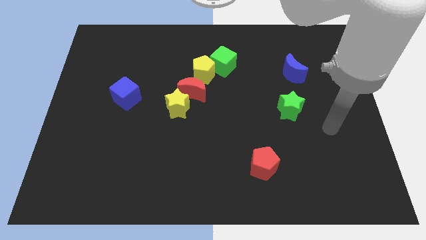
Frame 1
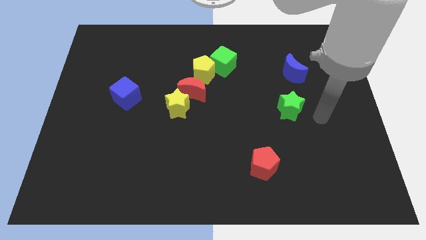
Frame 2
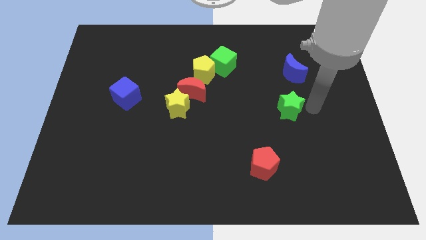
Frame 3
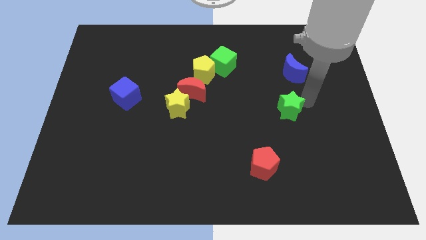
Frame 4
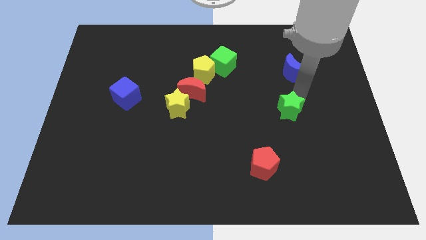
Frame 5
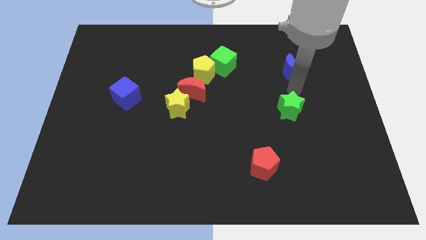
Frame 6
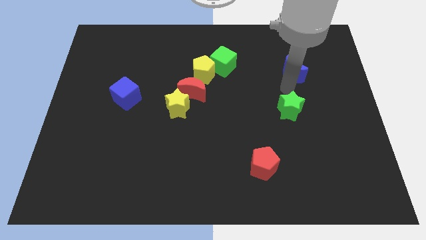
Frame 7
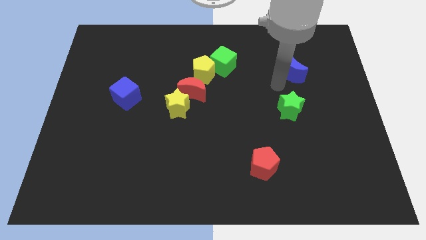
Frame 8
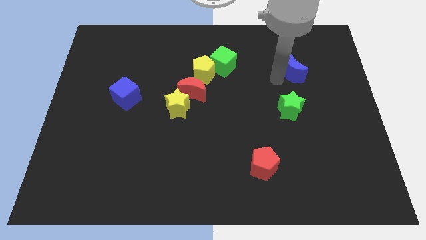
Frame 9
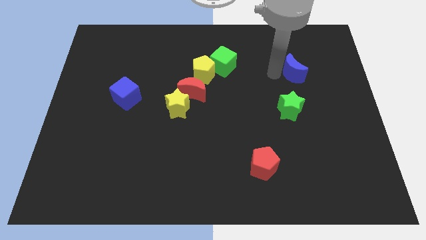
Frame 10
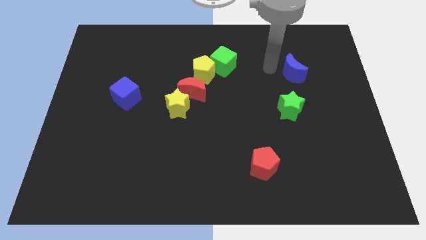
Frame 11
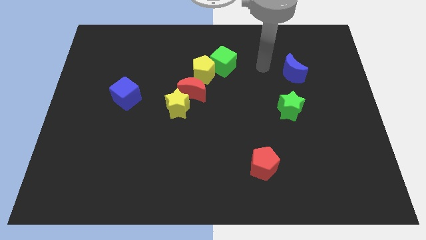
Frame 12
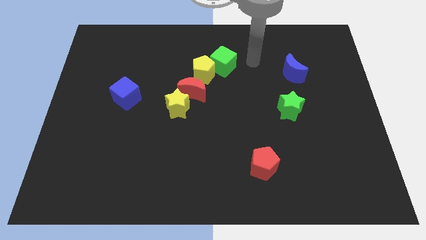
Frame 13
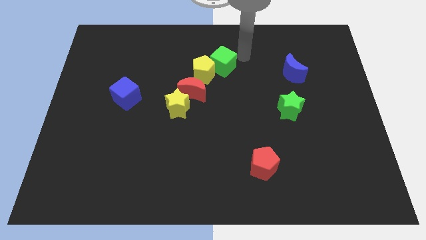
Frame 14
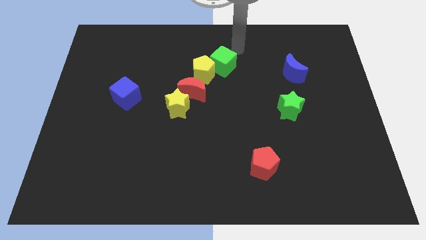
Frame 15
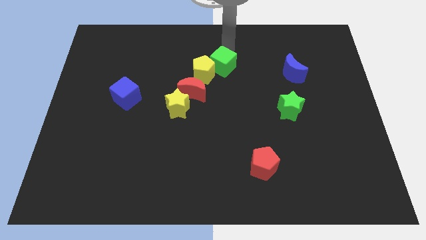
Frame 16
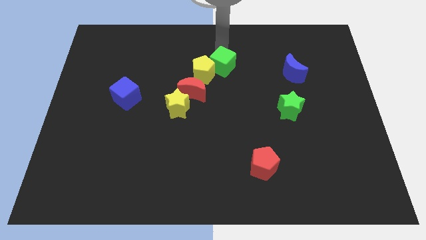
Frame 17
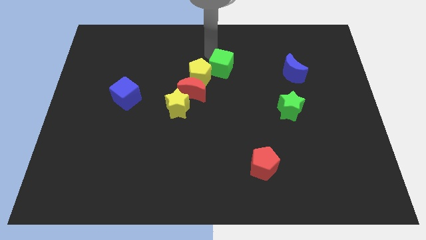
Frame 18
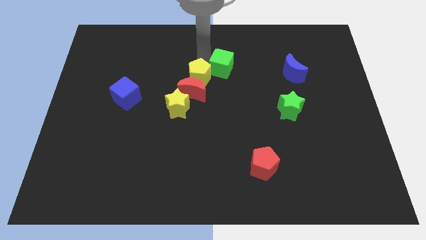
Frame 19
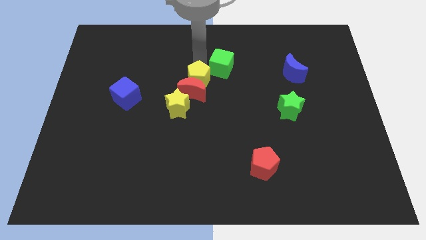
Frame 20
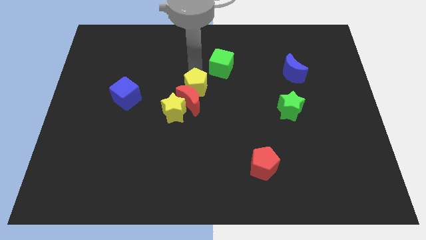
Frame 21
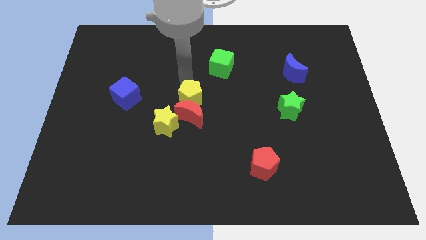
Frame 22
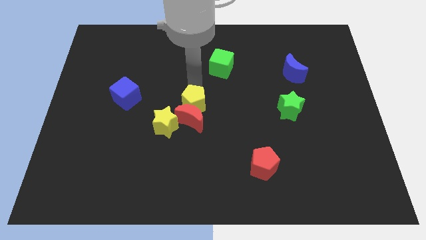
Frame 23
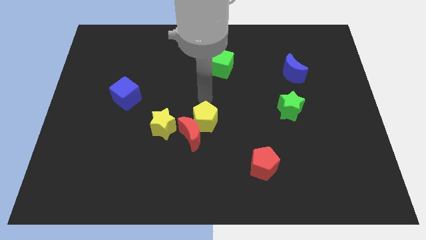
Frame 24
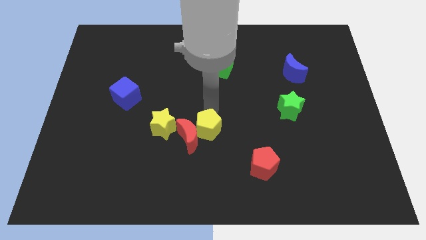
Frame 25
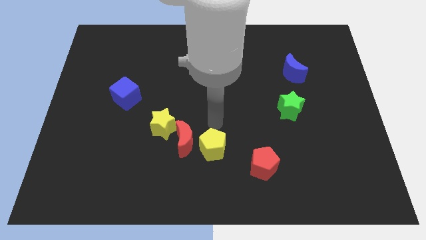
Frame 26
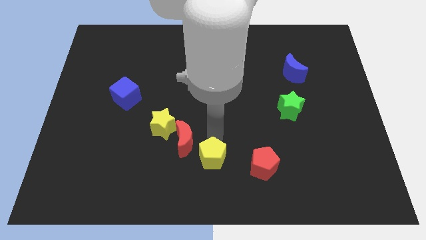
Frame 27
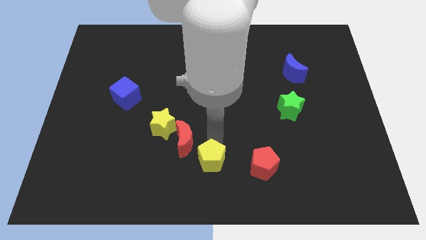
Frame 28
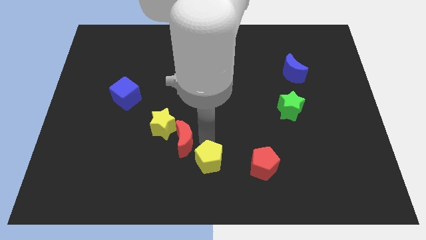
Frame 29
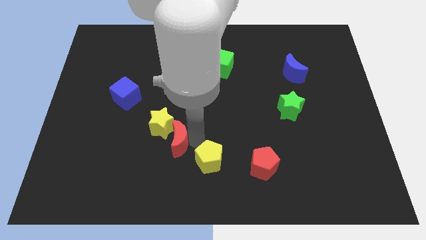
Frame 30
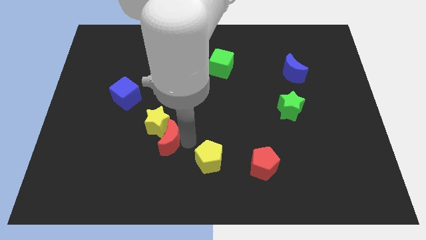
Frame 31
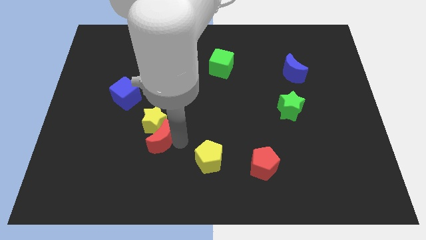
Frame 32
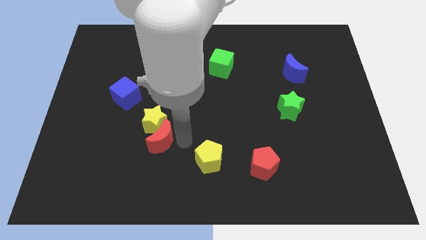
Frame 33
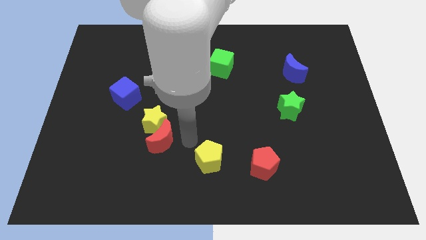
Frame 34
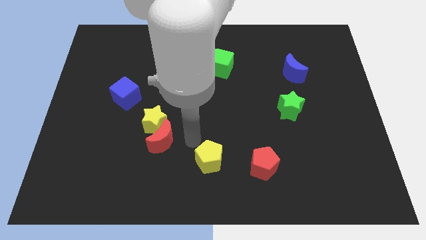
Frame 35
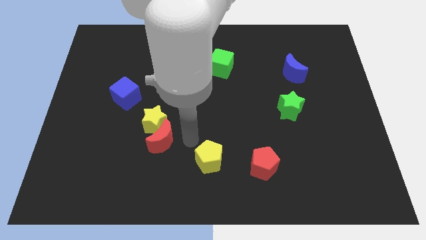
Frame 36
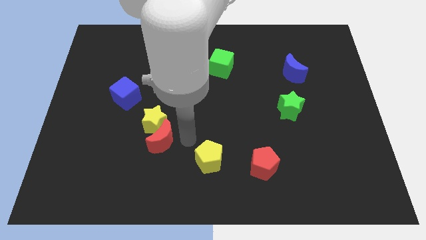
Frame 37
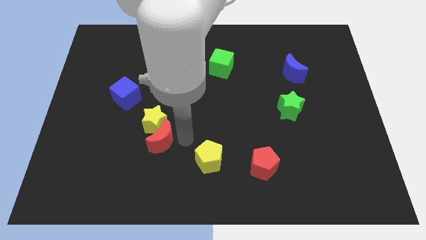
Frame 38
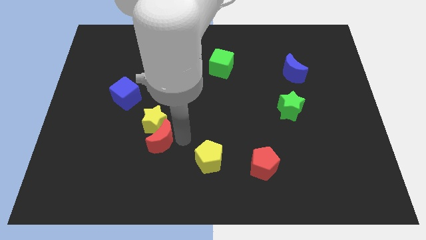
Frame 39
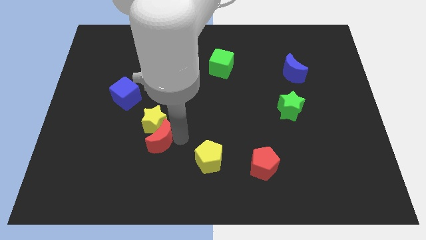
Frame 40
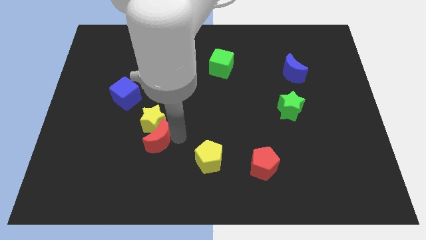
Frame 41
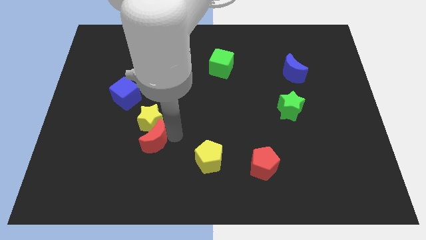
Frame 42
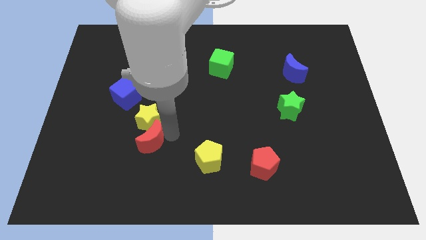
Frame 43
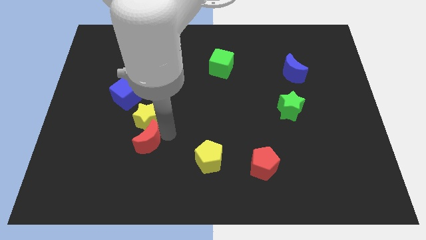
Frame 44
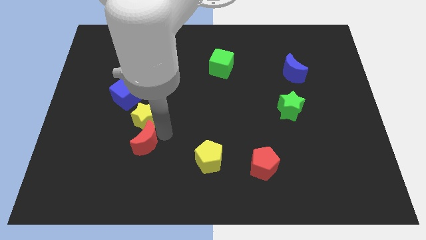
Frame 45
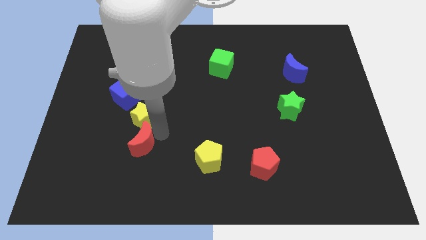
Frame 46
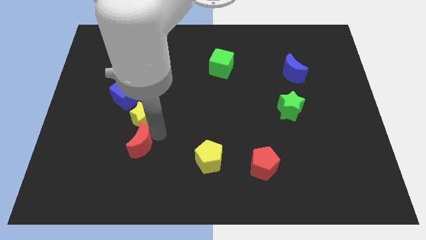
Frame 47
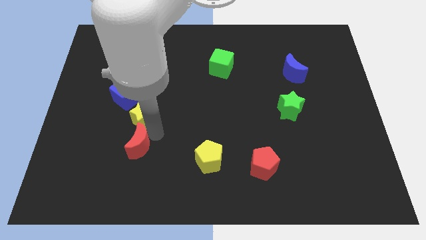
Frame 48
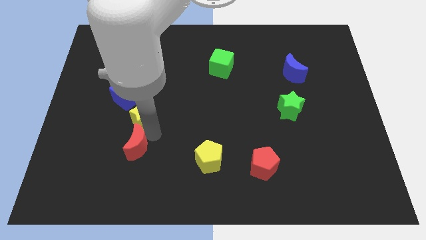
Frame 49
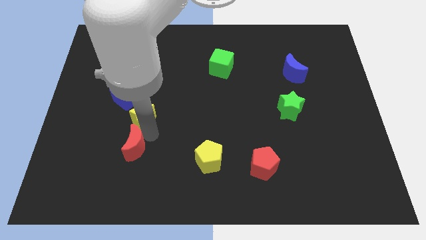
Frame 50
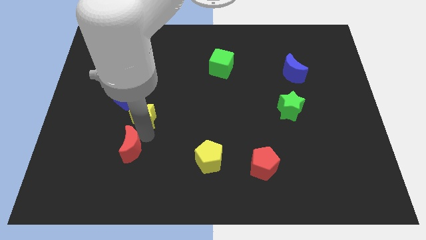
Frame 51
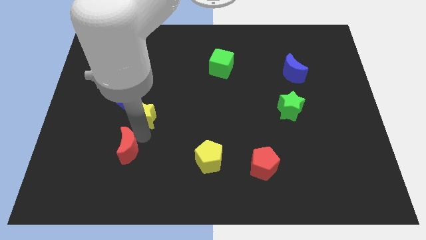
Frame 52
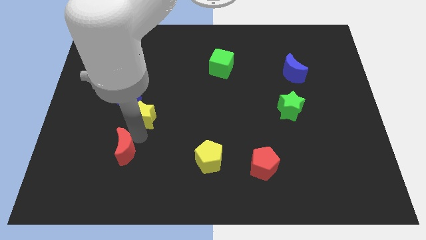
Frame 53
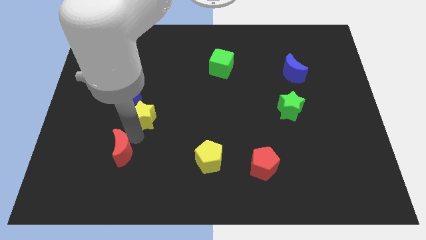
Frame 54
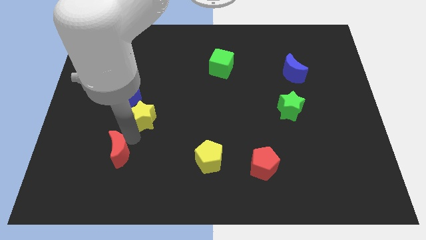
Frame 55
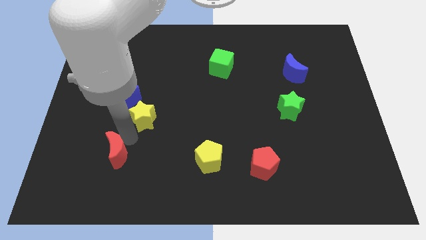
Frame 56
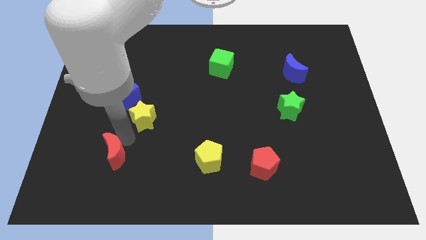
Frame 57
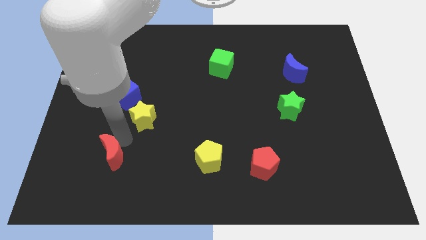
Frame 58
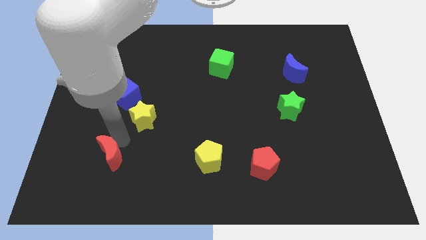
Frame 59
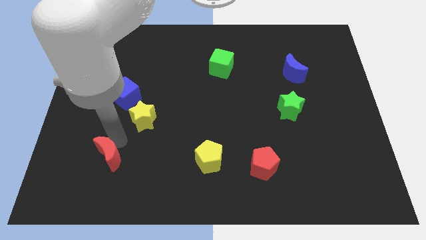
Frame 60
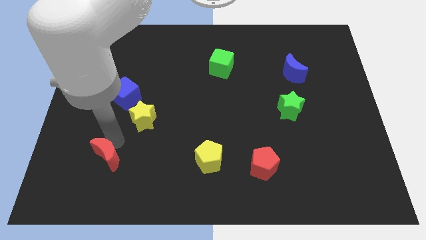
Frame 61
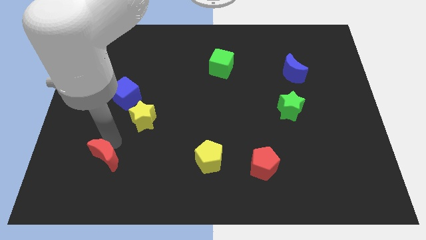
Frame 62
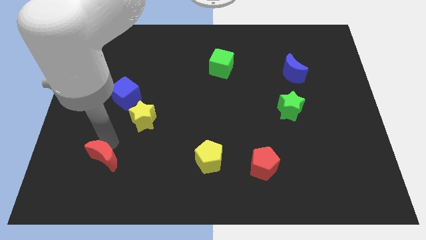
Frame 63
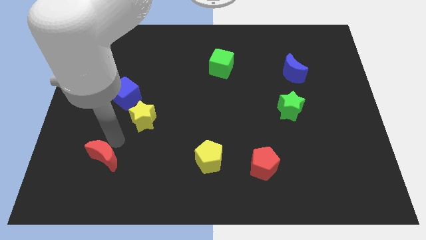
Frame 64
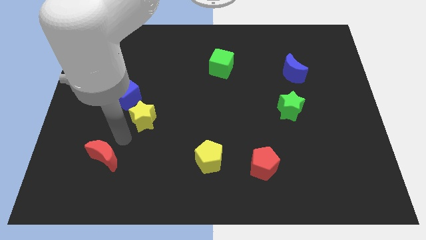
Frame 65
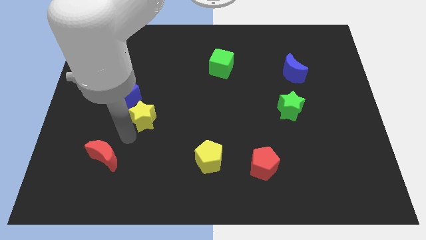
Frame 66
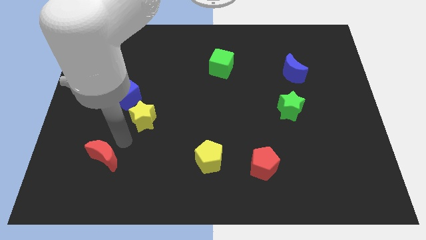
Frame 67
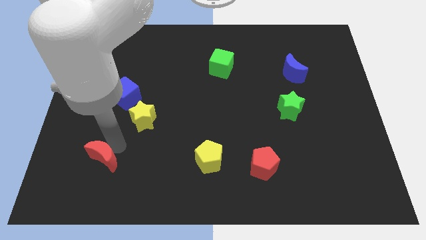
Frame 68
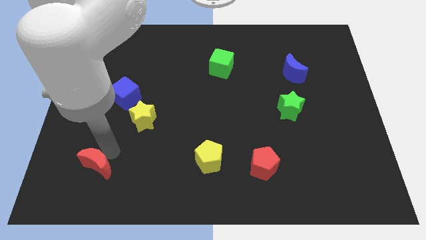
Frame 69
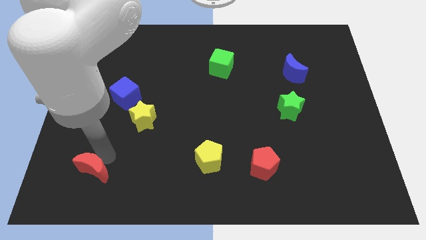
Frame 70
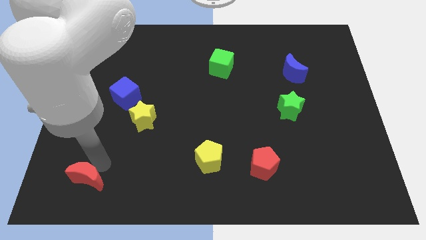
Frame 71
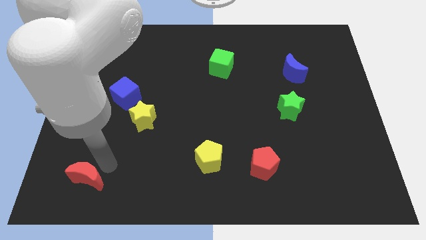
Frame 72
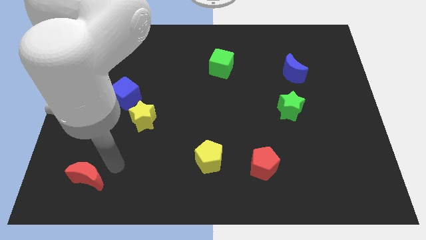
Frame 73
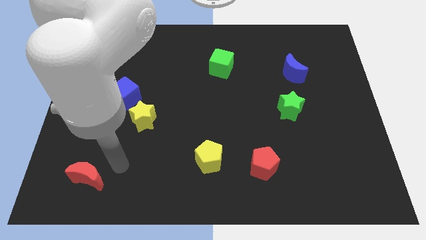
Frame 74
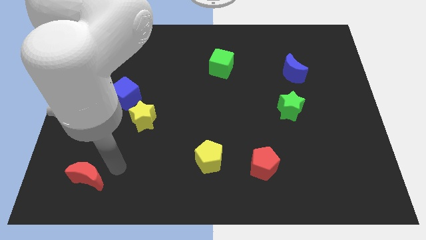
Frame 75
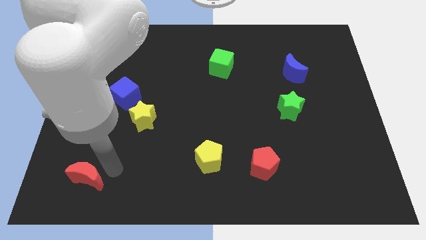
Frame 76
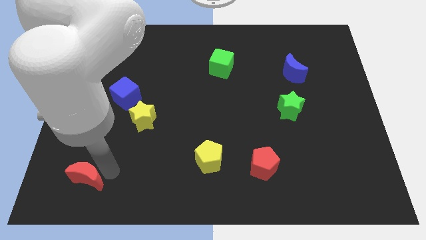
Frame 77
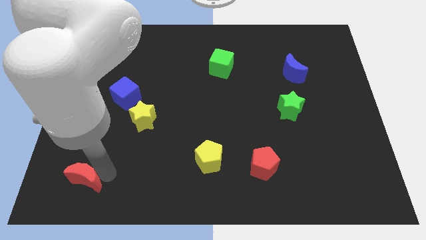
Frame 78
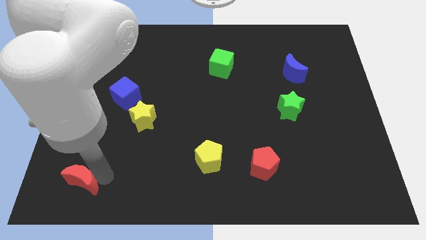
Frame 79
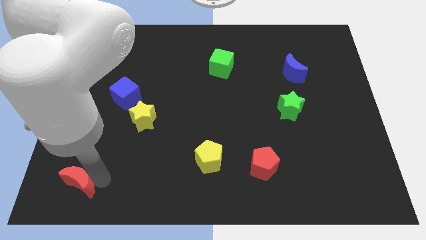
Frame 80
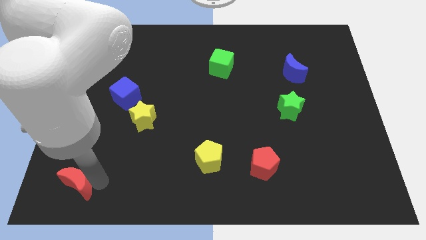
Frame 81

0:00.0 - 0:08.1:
put the red moon to the bottom left
